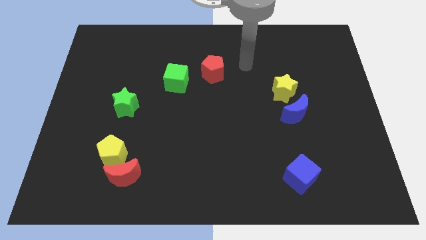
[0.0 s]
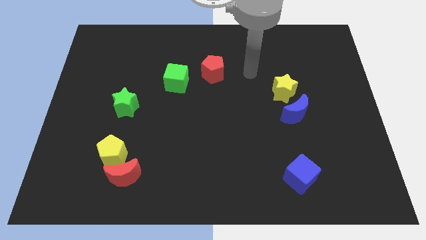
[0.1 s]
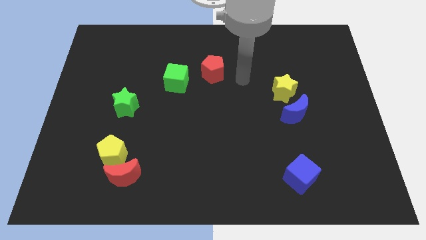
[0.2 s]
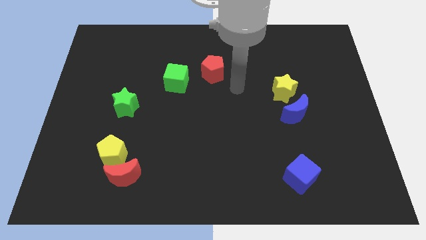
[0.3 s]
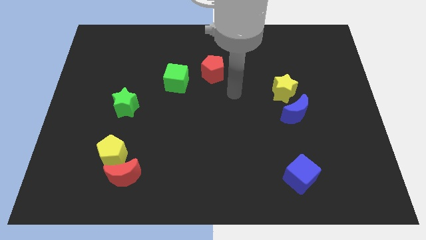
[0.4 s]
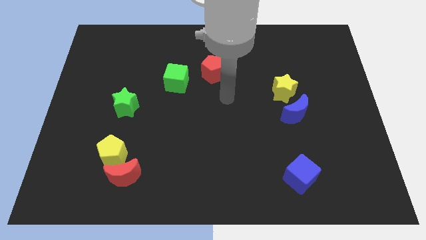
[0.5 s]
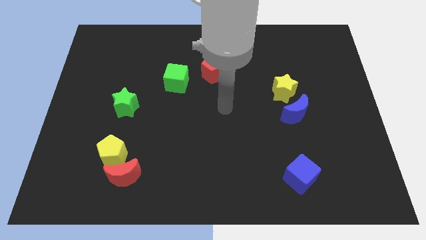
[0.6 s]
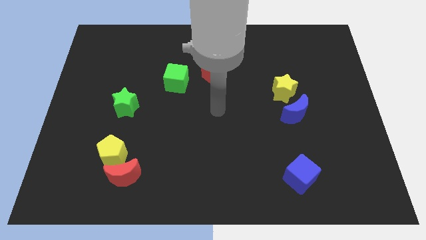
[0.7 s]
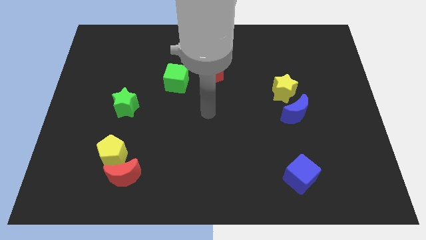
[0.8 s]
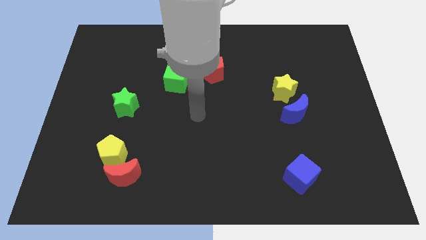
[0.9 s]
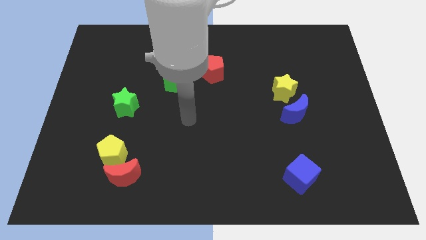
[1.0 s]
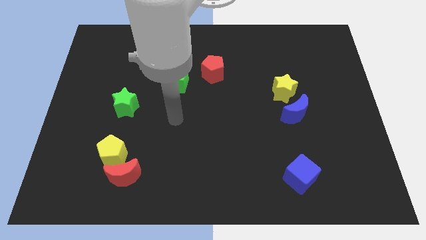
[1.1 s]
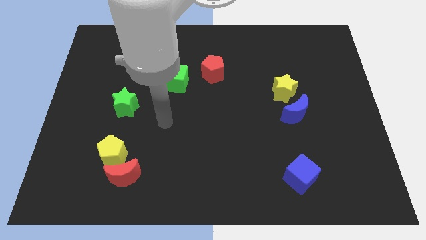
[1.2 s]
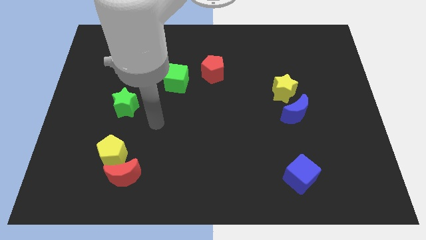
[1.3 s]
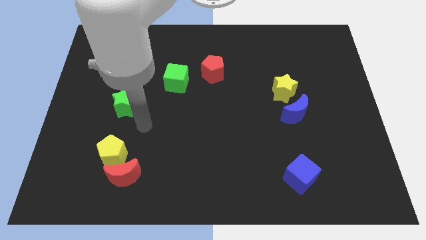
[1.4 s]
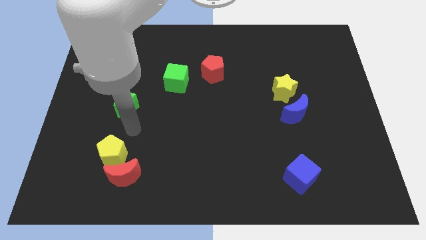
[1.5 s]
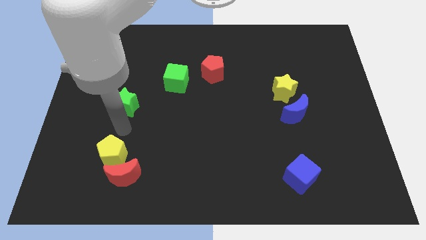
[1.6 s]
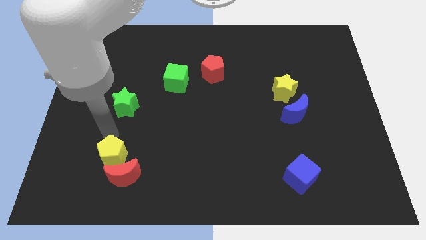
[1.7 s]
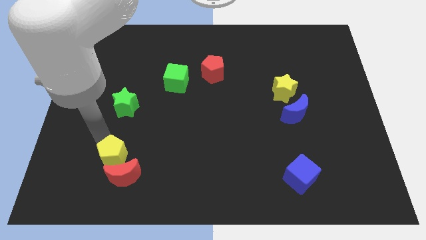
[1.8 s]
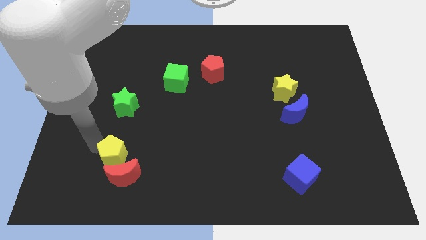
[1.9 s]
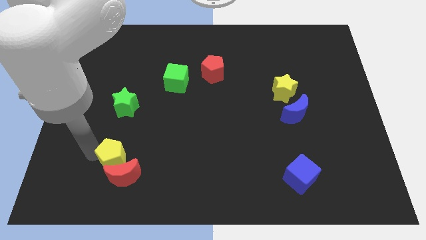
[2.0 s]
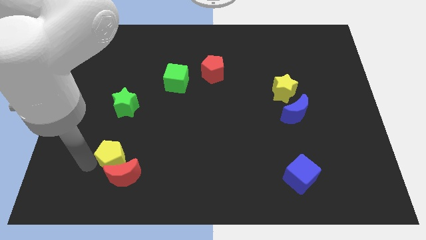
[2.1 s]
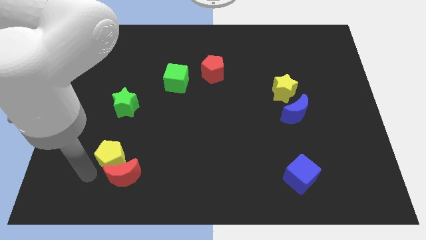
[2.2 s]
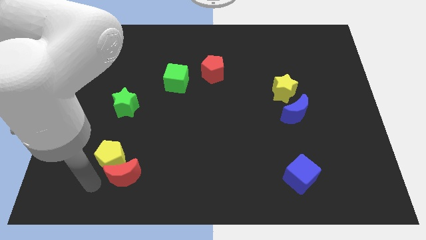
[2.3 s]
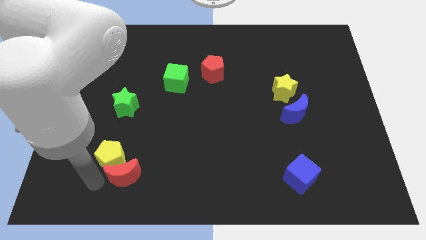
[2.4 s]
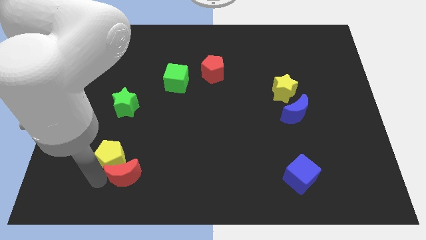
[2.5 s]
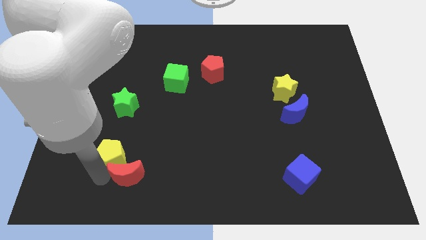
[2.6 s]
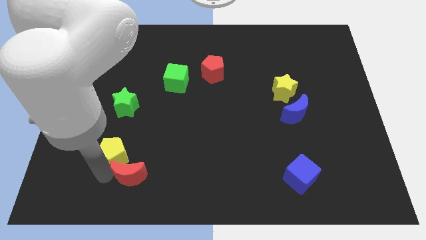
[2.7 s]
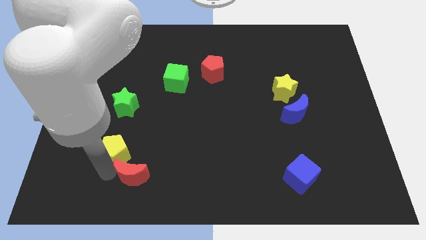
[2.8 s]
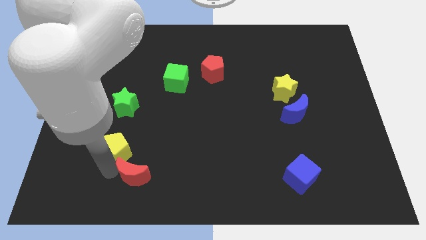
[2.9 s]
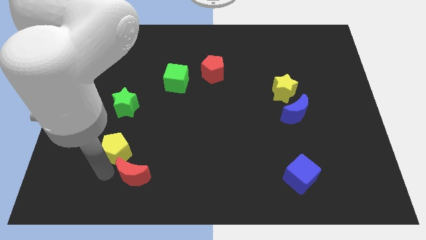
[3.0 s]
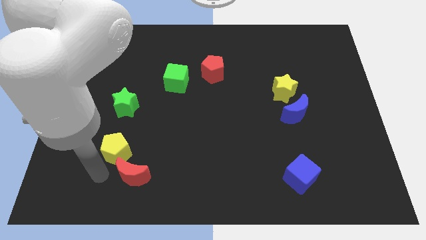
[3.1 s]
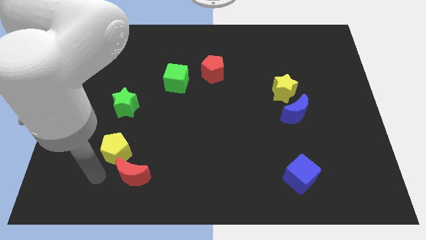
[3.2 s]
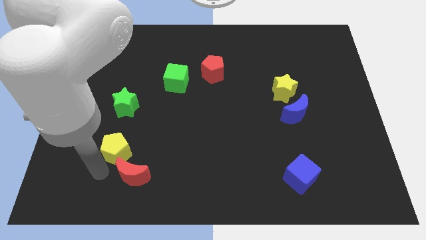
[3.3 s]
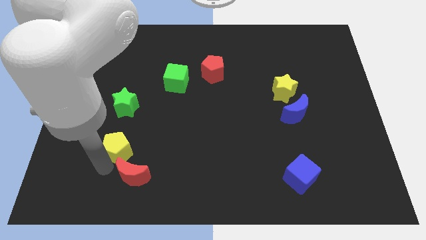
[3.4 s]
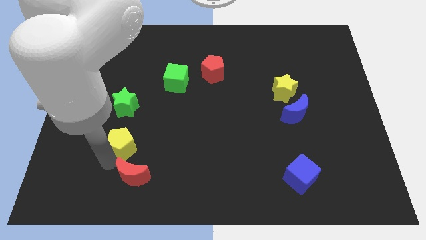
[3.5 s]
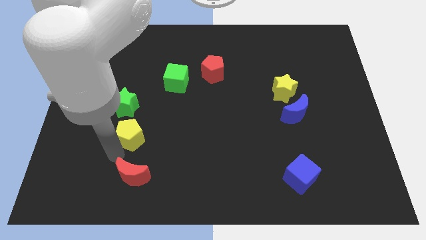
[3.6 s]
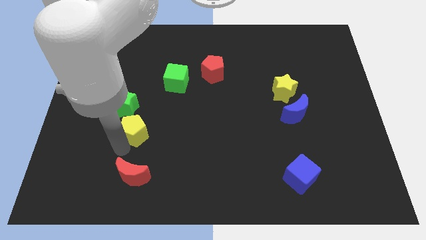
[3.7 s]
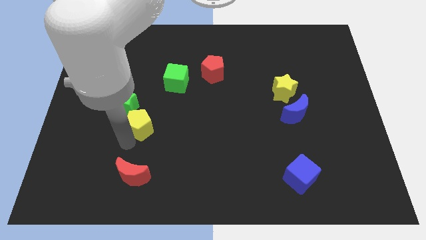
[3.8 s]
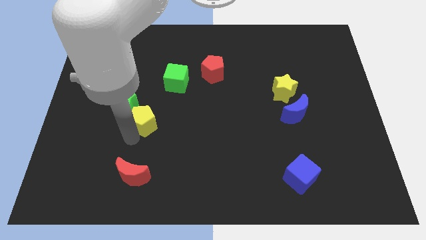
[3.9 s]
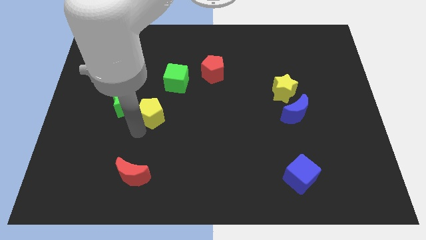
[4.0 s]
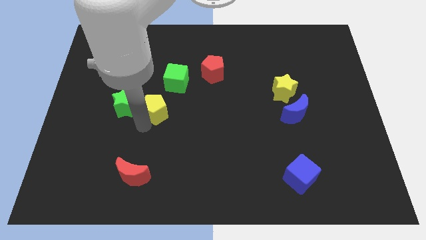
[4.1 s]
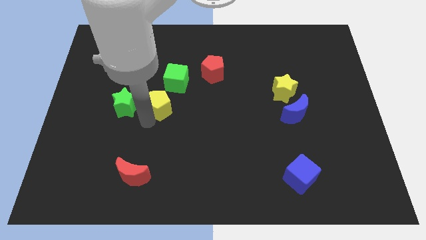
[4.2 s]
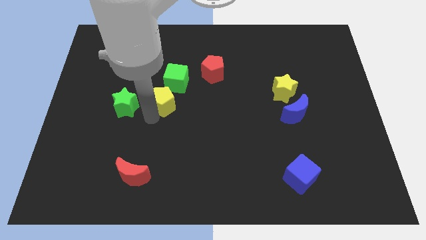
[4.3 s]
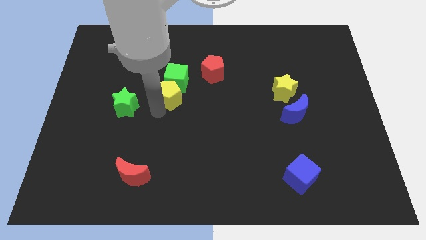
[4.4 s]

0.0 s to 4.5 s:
push the yellow pentagon to the green cube

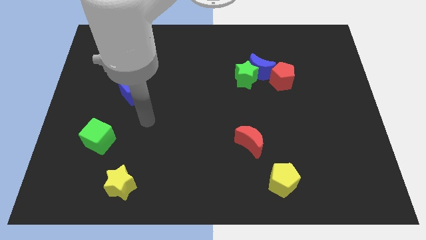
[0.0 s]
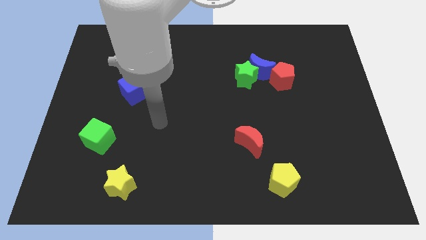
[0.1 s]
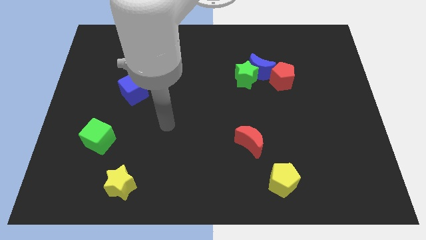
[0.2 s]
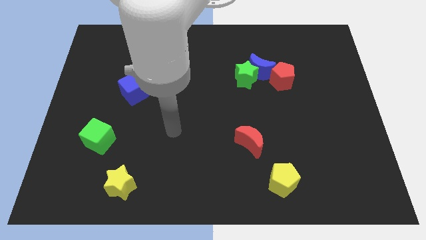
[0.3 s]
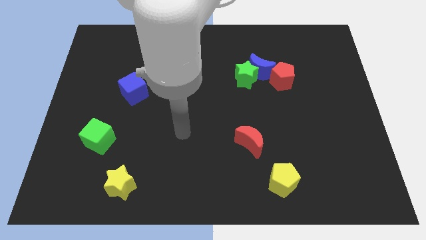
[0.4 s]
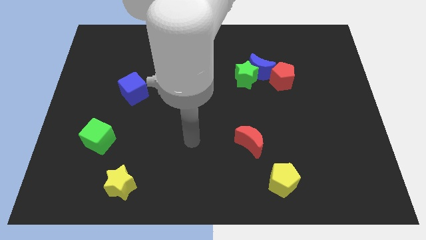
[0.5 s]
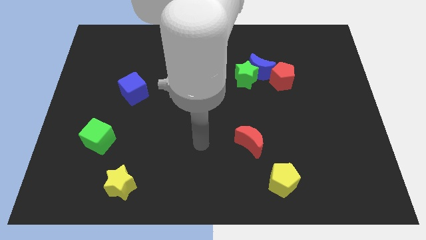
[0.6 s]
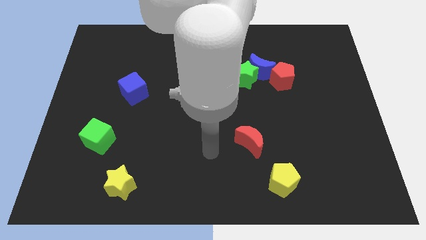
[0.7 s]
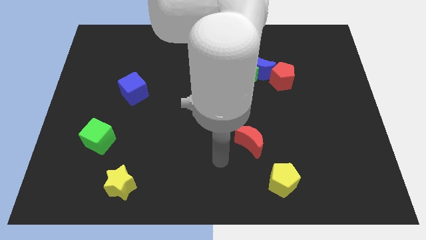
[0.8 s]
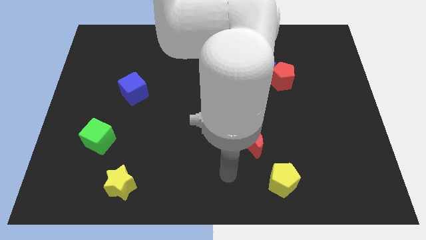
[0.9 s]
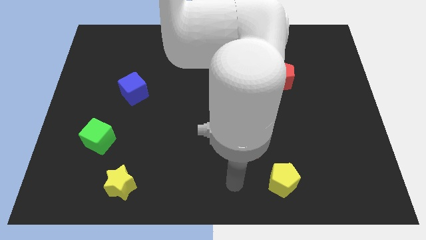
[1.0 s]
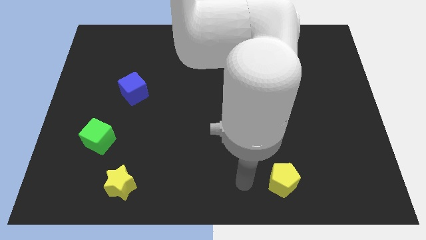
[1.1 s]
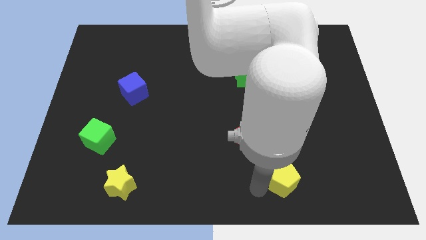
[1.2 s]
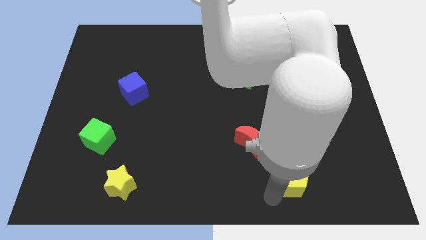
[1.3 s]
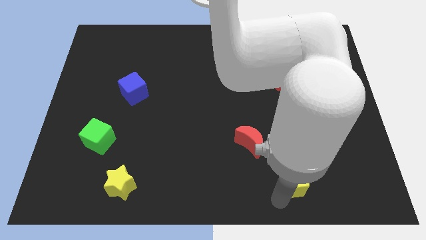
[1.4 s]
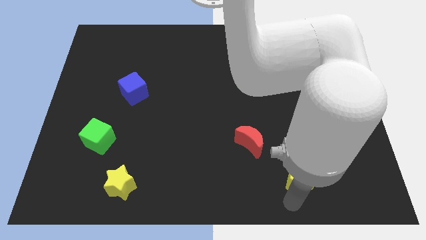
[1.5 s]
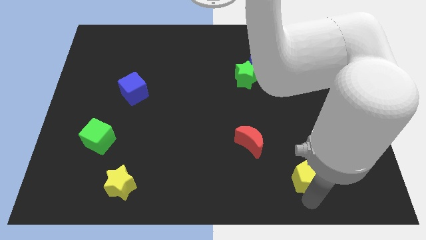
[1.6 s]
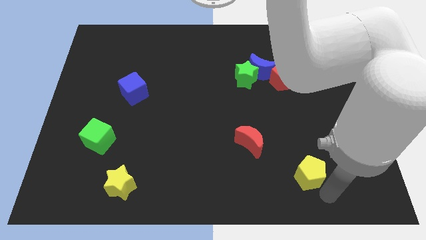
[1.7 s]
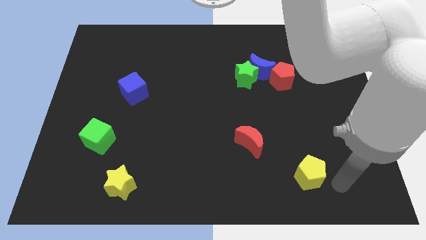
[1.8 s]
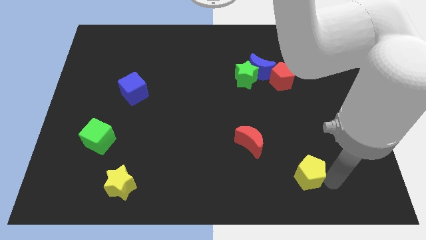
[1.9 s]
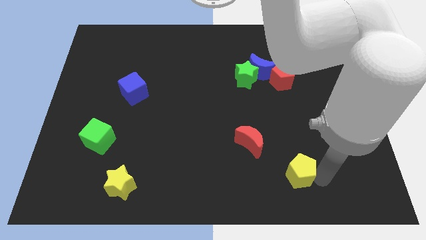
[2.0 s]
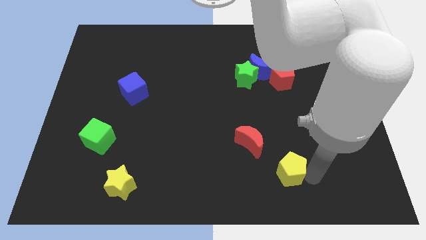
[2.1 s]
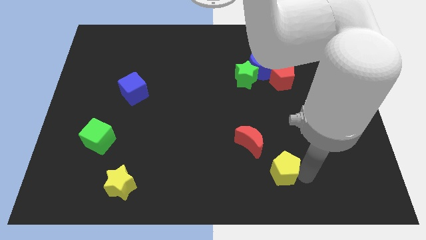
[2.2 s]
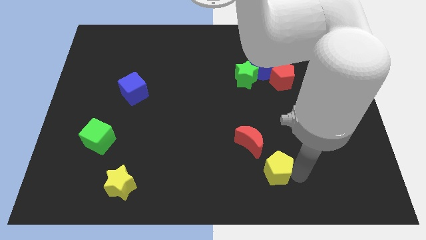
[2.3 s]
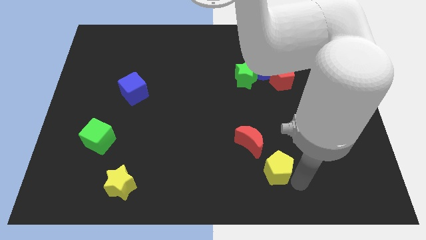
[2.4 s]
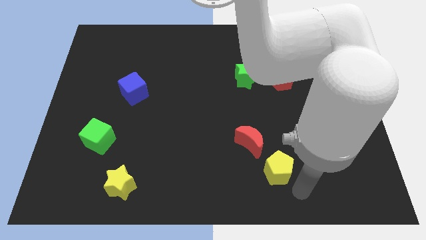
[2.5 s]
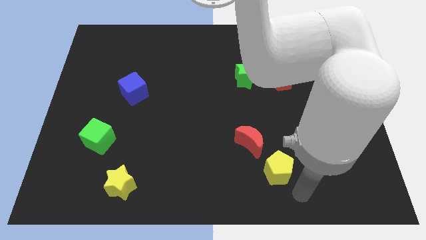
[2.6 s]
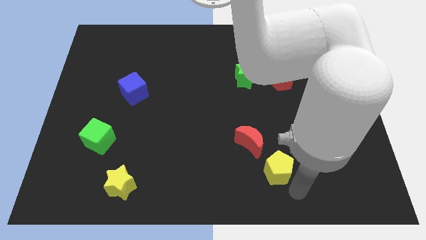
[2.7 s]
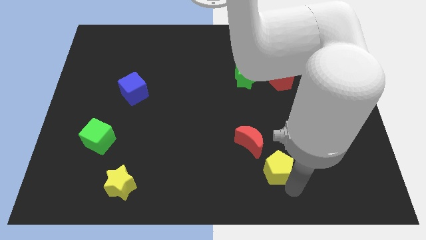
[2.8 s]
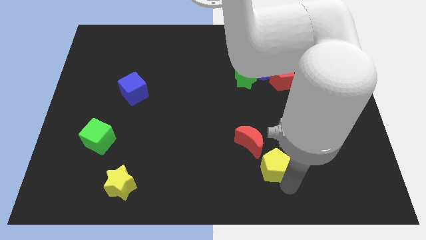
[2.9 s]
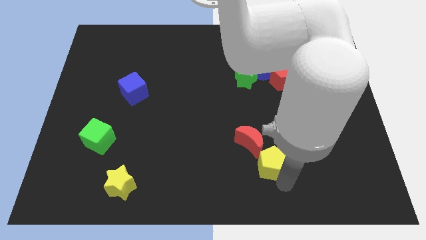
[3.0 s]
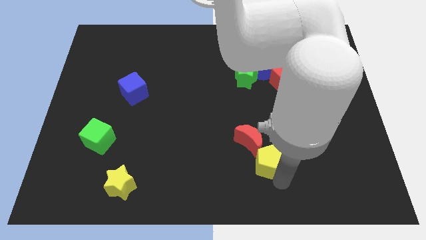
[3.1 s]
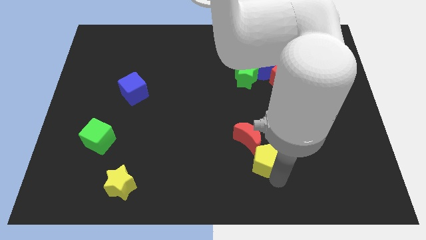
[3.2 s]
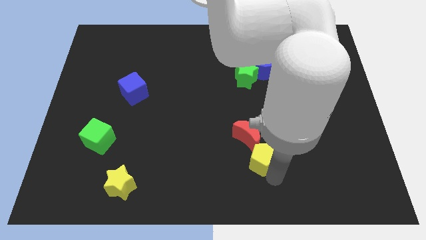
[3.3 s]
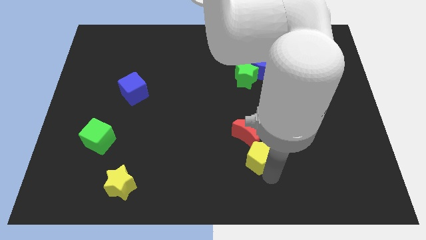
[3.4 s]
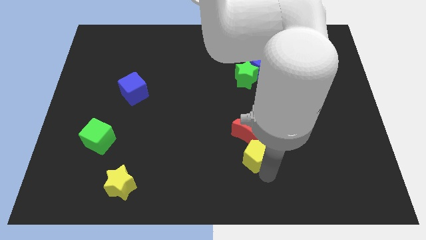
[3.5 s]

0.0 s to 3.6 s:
put the yellow pentagon next to the red moon
